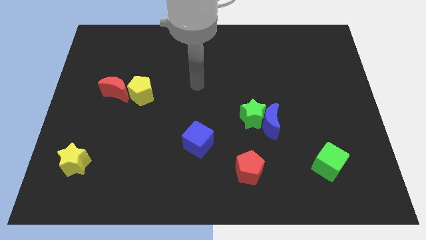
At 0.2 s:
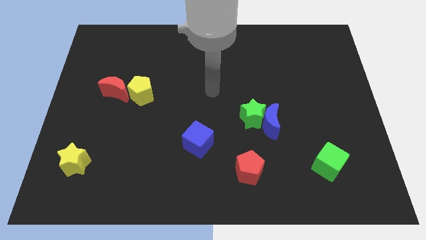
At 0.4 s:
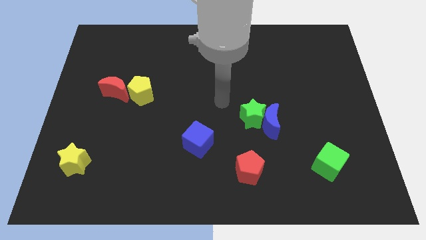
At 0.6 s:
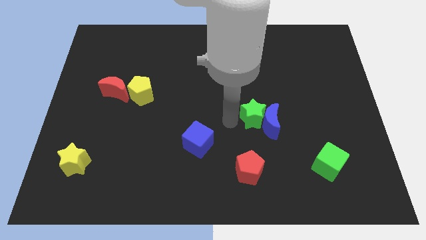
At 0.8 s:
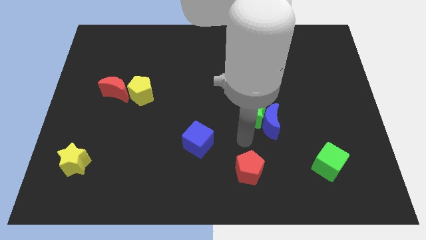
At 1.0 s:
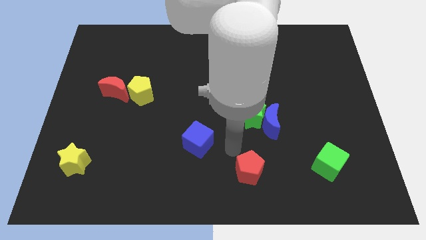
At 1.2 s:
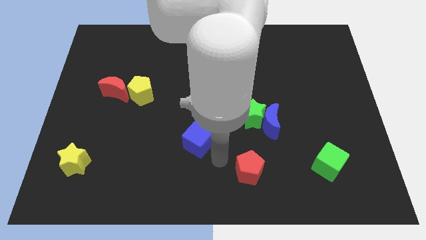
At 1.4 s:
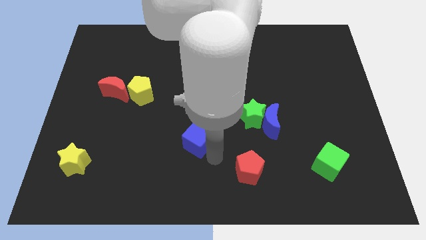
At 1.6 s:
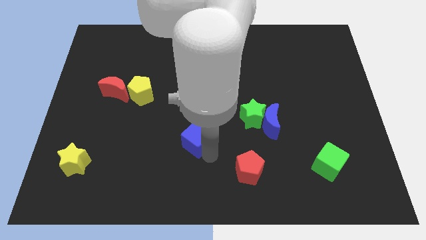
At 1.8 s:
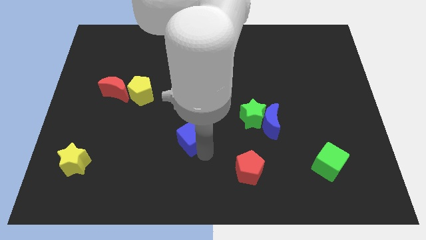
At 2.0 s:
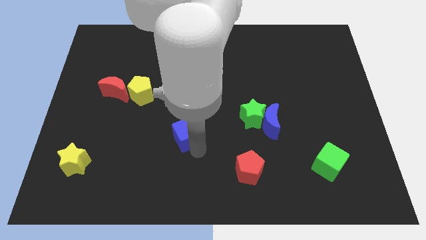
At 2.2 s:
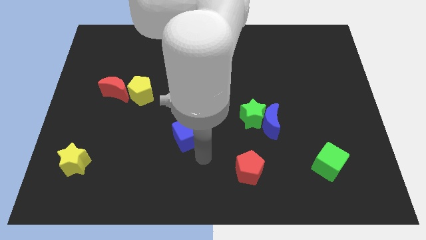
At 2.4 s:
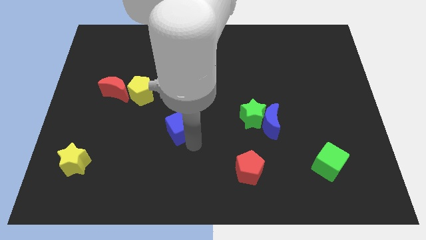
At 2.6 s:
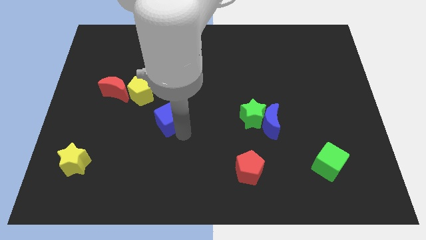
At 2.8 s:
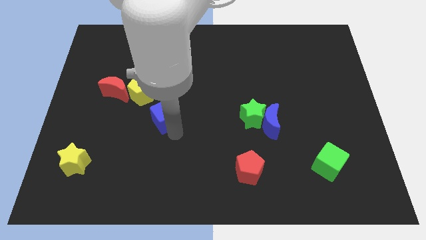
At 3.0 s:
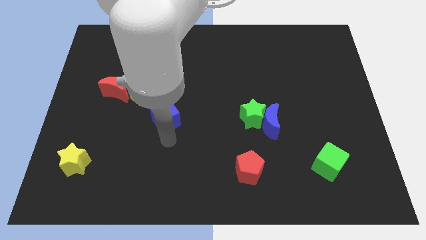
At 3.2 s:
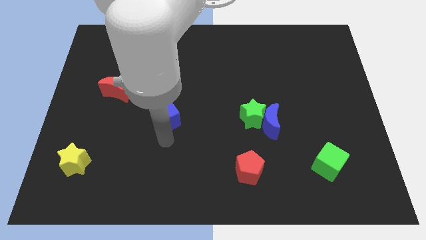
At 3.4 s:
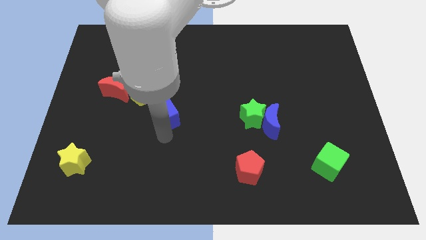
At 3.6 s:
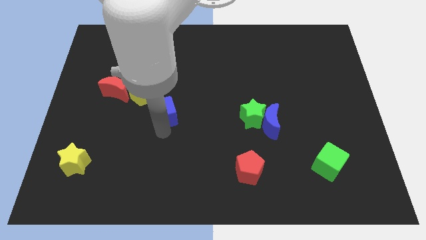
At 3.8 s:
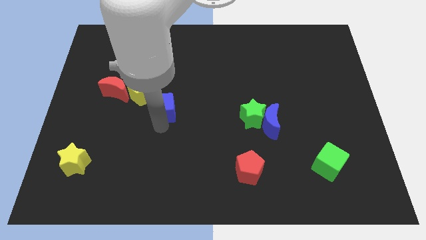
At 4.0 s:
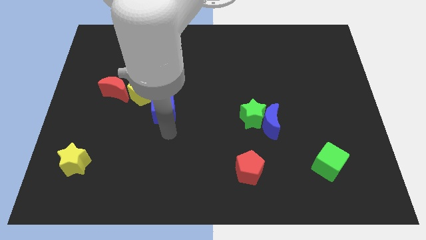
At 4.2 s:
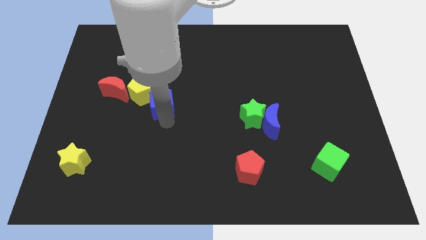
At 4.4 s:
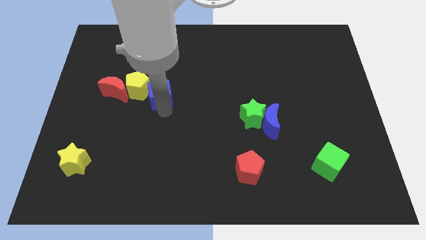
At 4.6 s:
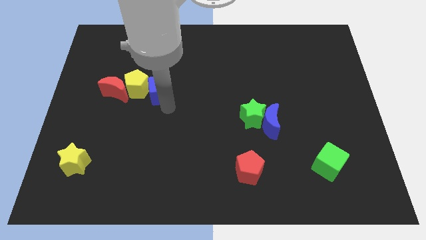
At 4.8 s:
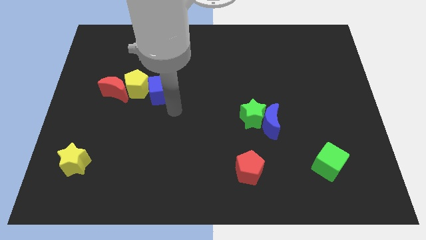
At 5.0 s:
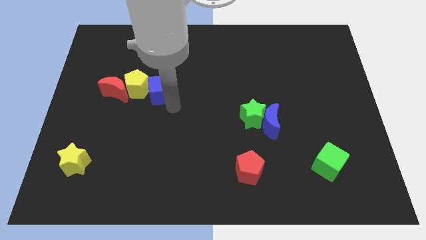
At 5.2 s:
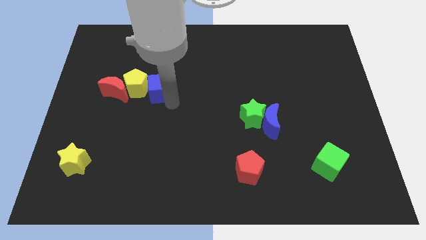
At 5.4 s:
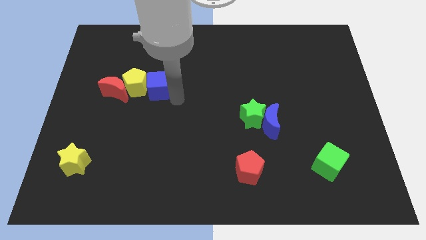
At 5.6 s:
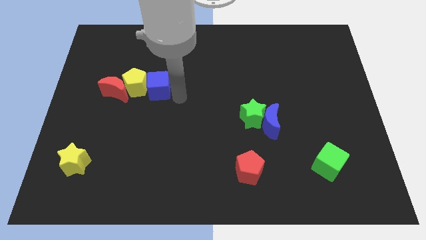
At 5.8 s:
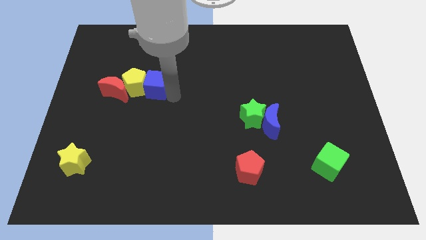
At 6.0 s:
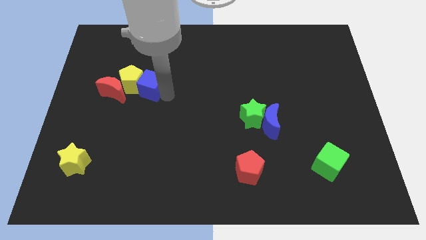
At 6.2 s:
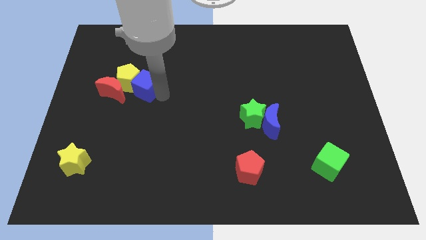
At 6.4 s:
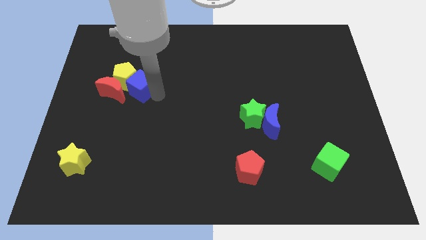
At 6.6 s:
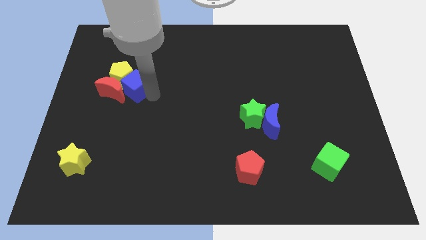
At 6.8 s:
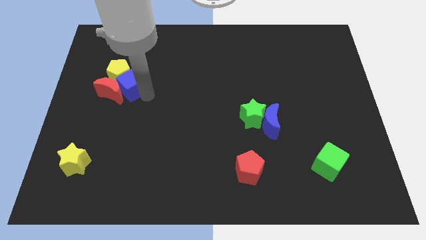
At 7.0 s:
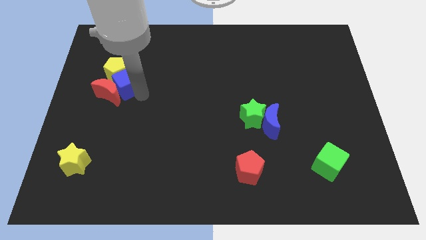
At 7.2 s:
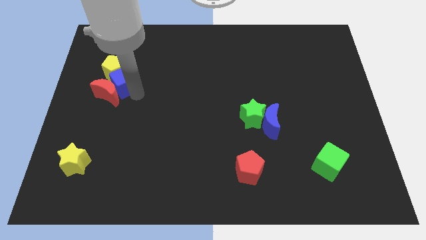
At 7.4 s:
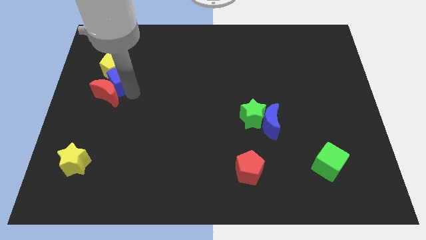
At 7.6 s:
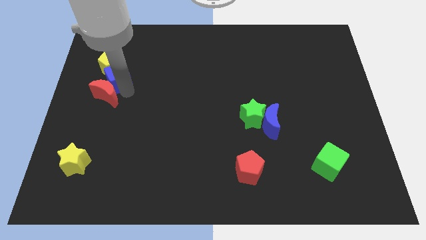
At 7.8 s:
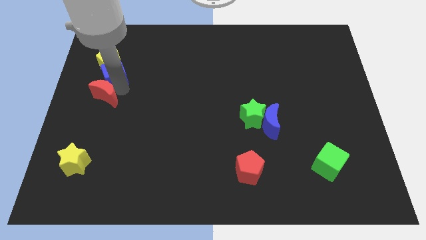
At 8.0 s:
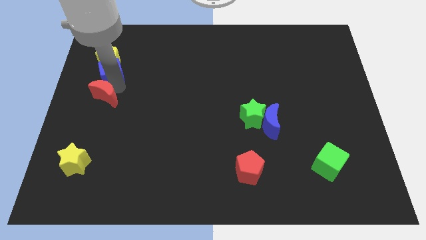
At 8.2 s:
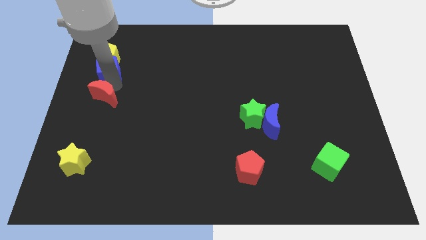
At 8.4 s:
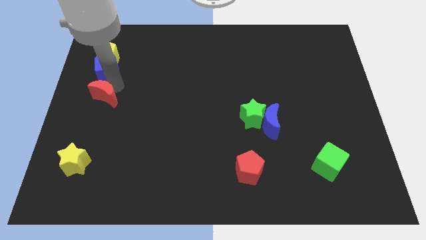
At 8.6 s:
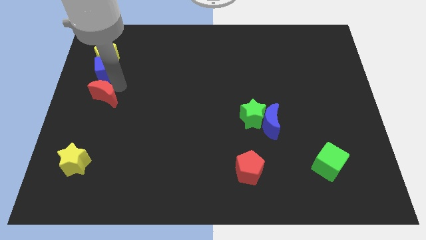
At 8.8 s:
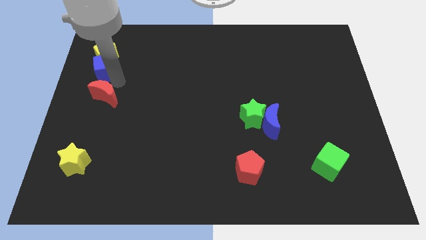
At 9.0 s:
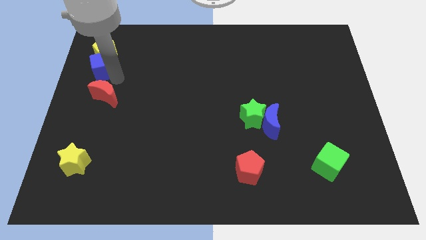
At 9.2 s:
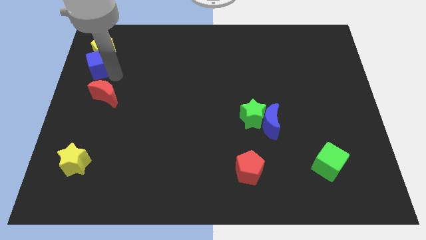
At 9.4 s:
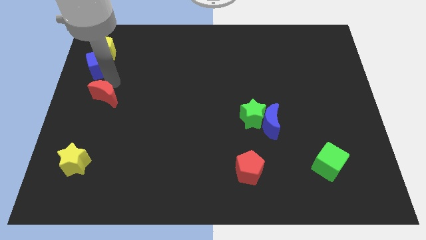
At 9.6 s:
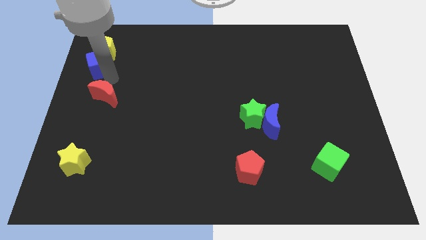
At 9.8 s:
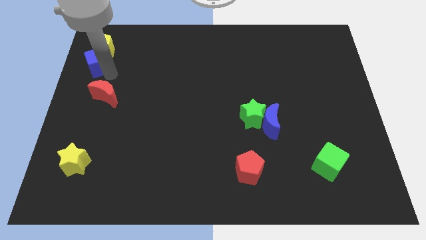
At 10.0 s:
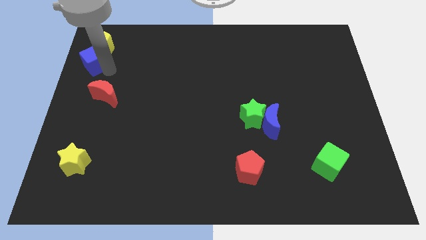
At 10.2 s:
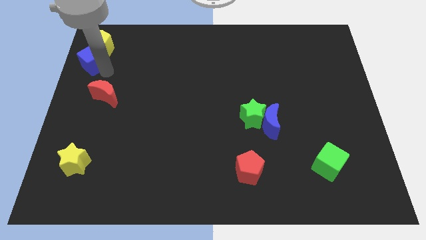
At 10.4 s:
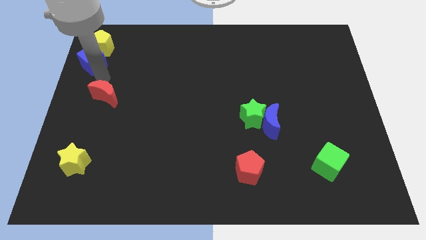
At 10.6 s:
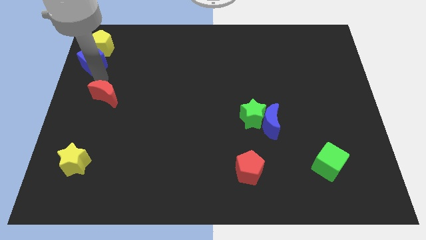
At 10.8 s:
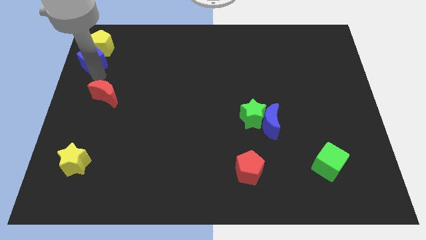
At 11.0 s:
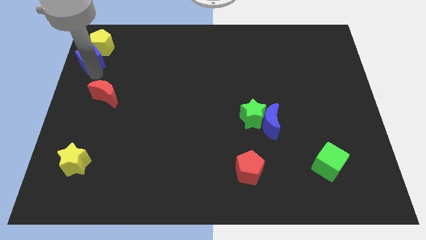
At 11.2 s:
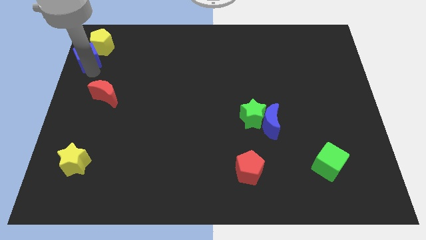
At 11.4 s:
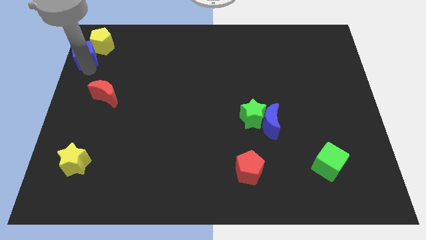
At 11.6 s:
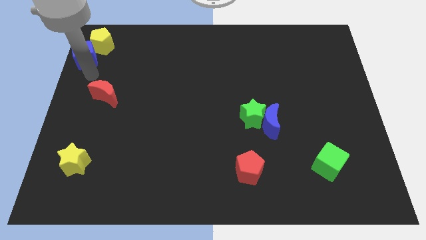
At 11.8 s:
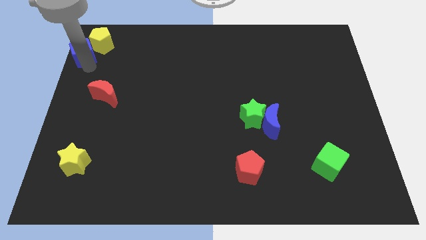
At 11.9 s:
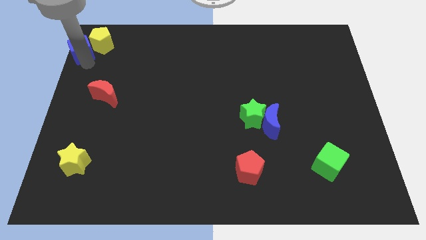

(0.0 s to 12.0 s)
move the blue cube to the top left corner
